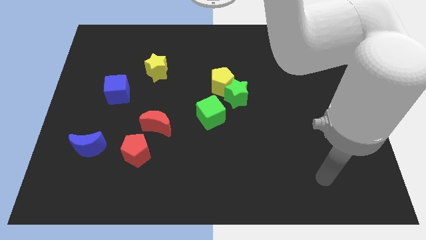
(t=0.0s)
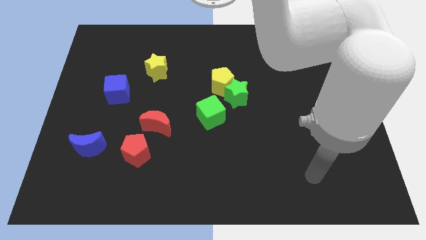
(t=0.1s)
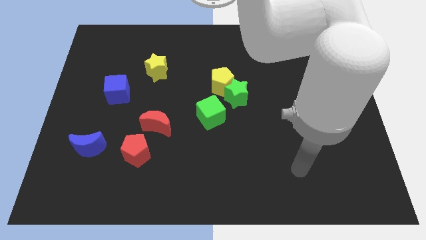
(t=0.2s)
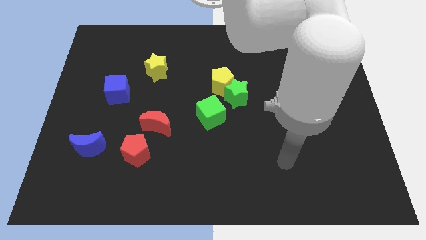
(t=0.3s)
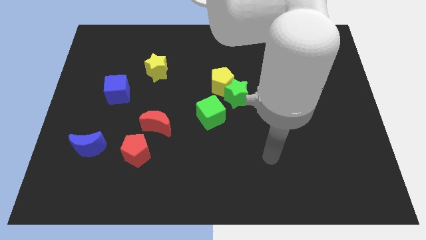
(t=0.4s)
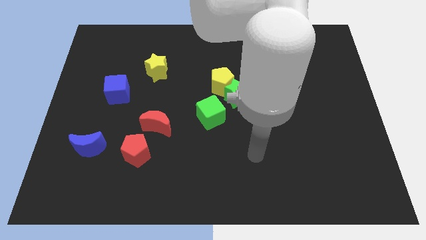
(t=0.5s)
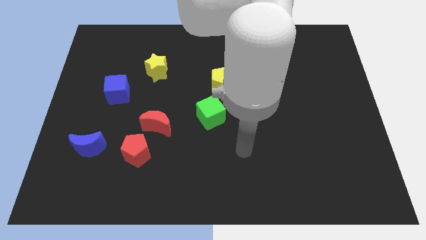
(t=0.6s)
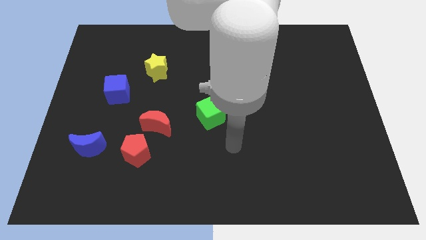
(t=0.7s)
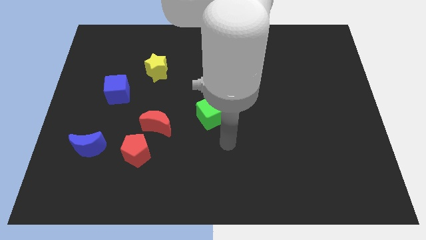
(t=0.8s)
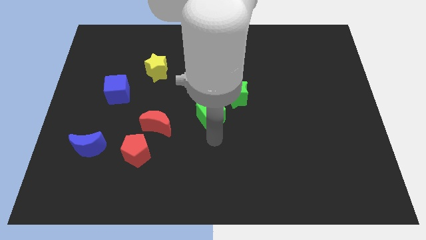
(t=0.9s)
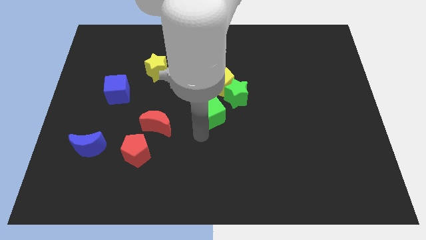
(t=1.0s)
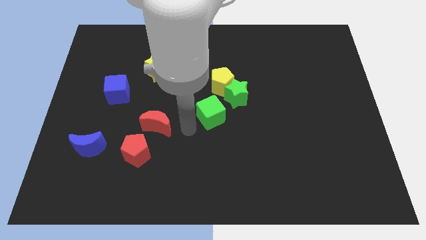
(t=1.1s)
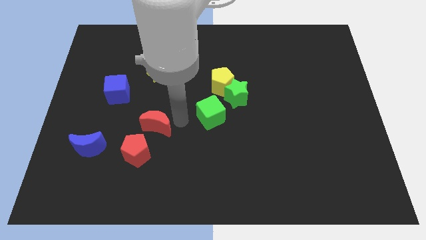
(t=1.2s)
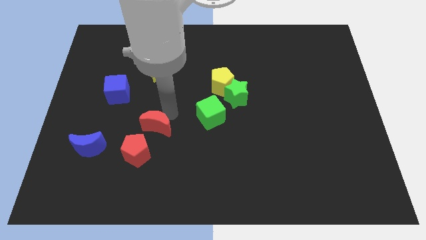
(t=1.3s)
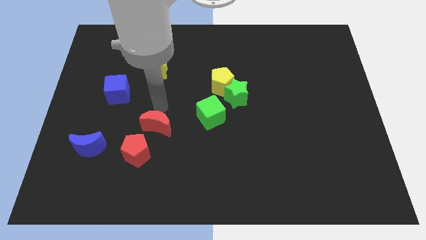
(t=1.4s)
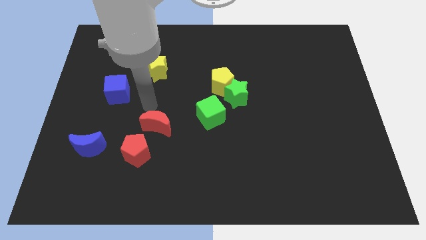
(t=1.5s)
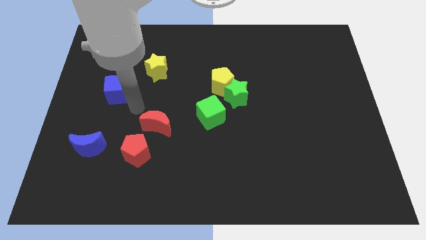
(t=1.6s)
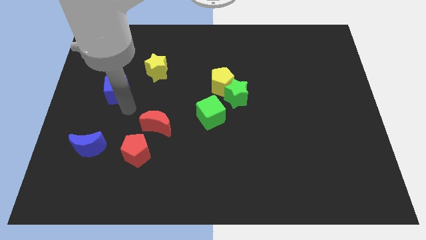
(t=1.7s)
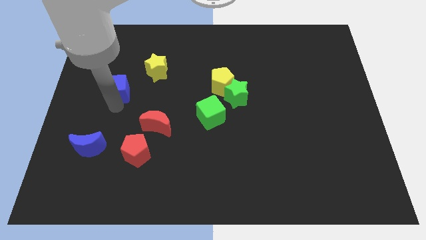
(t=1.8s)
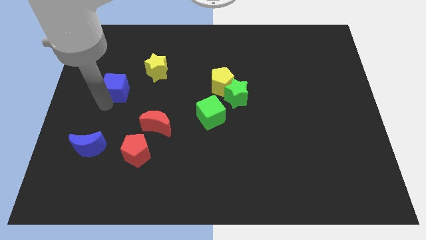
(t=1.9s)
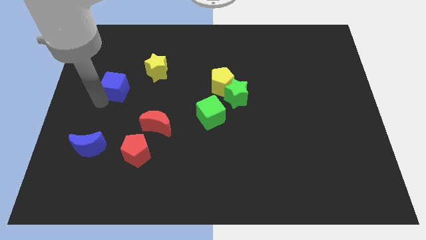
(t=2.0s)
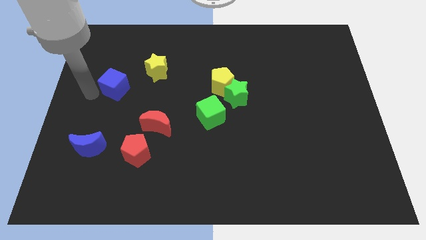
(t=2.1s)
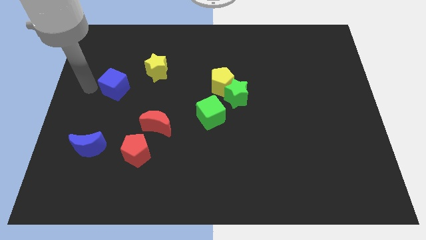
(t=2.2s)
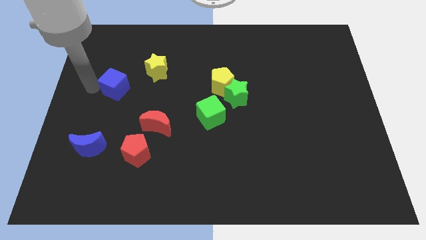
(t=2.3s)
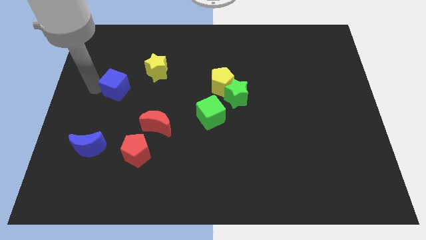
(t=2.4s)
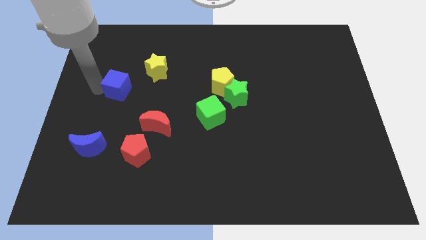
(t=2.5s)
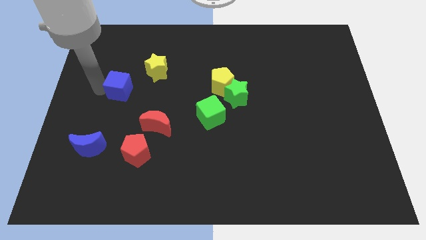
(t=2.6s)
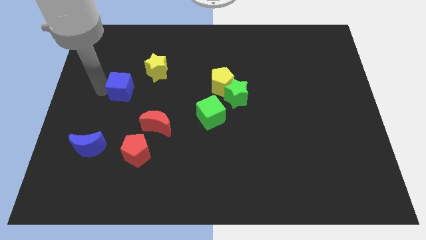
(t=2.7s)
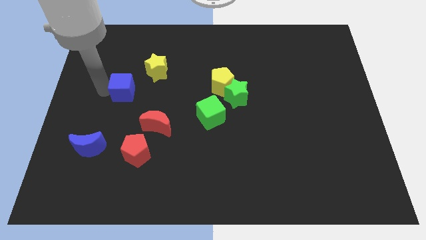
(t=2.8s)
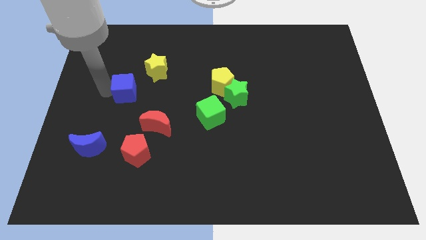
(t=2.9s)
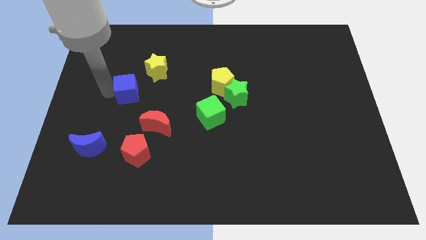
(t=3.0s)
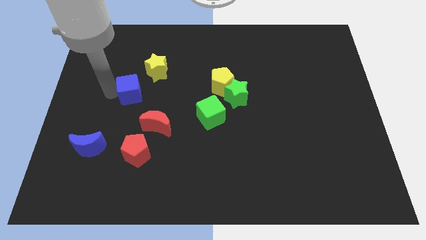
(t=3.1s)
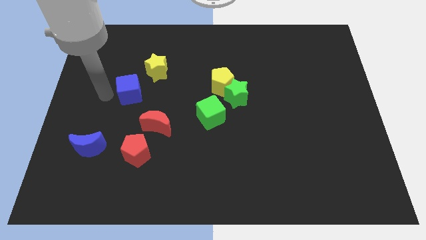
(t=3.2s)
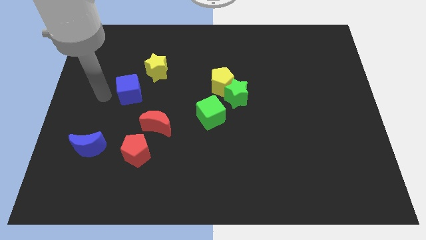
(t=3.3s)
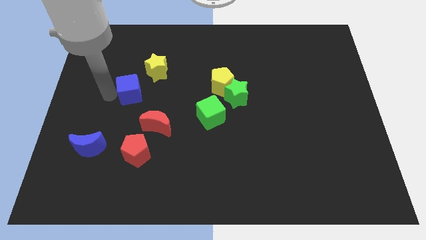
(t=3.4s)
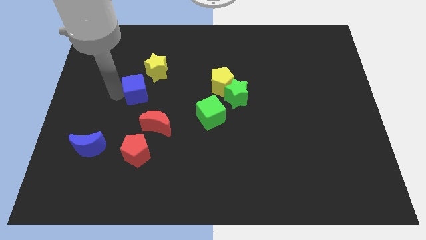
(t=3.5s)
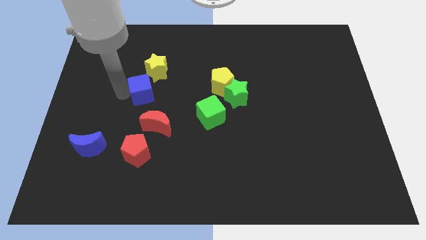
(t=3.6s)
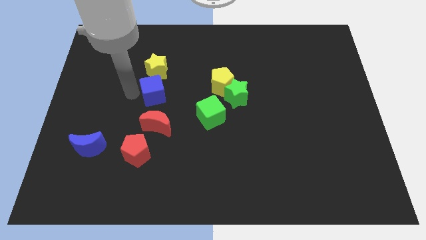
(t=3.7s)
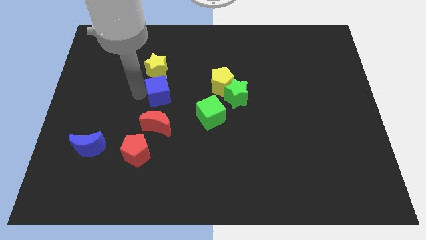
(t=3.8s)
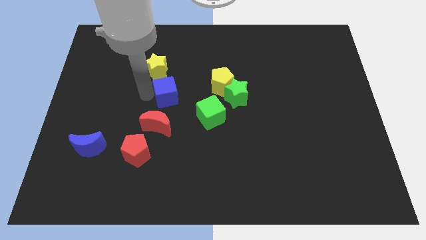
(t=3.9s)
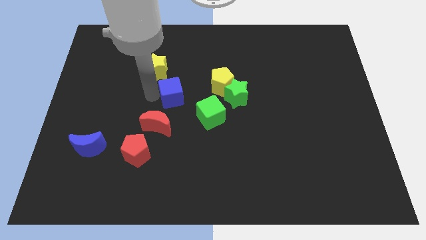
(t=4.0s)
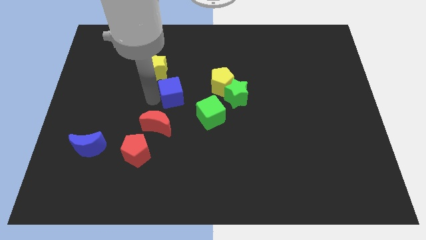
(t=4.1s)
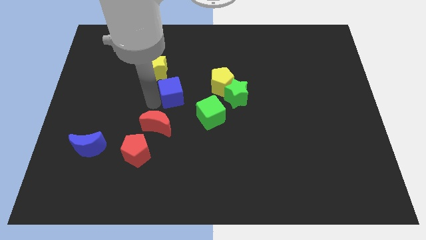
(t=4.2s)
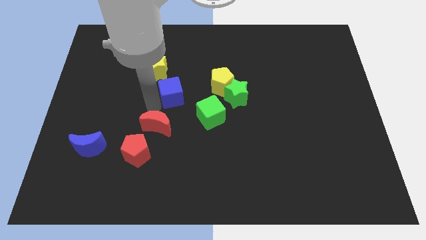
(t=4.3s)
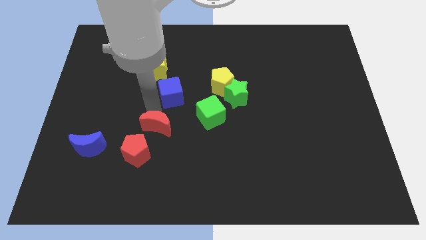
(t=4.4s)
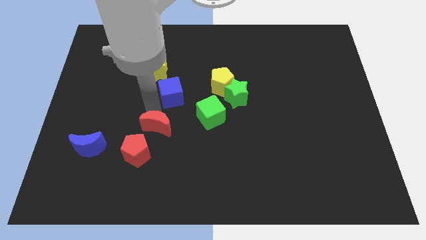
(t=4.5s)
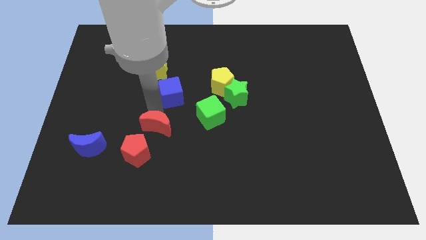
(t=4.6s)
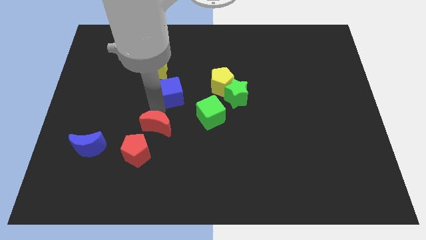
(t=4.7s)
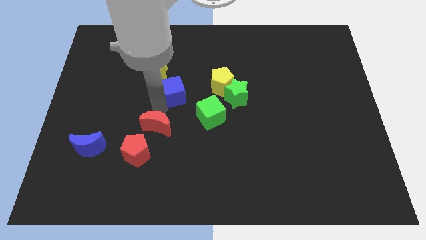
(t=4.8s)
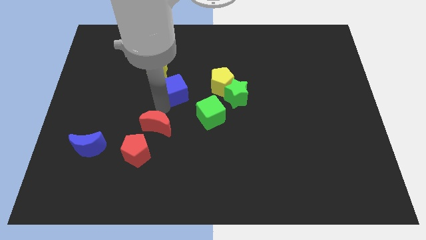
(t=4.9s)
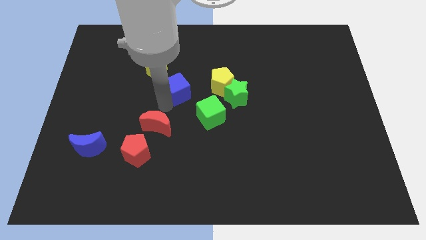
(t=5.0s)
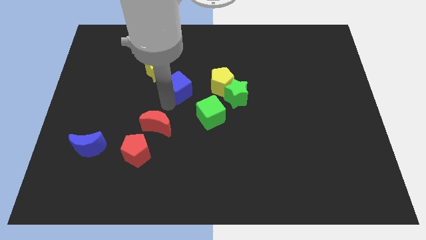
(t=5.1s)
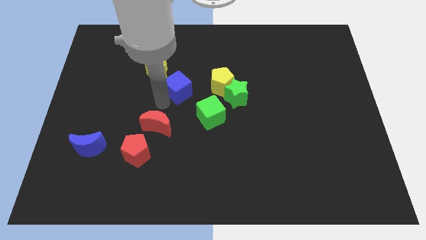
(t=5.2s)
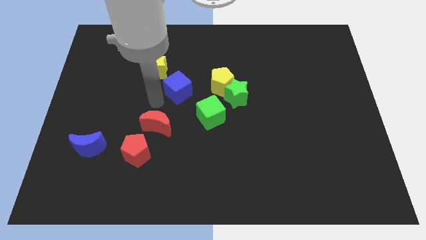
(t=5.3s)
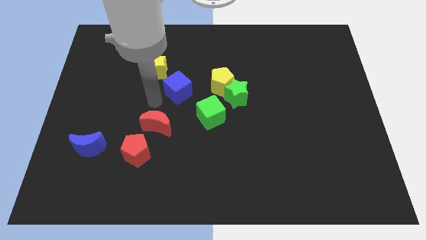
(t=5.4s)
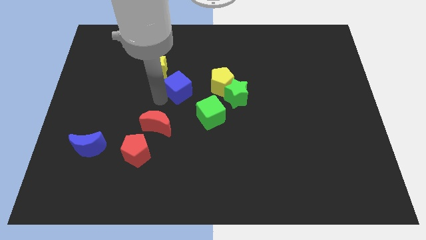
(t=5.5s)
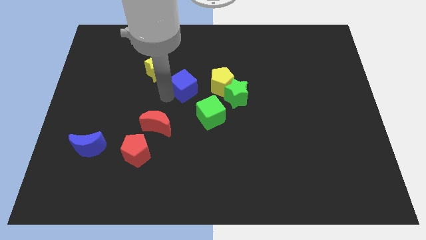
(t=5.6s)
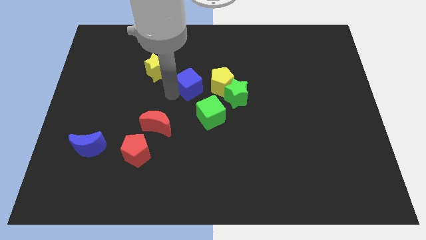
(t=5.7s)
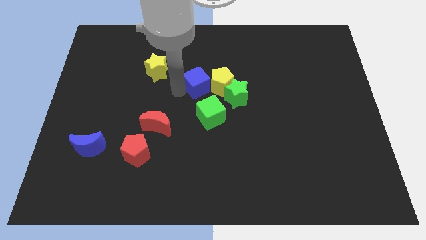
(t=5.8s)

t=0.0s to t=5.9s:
slide the blue cube diagonally up and to the left of the green star
